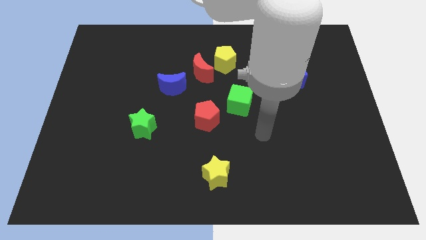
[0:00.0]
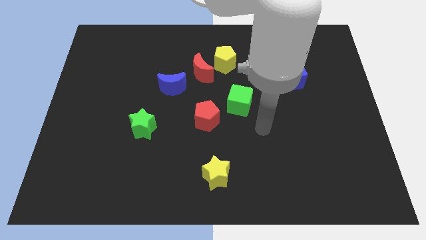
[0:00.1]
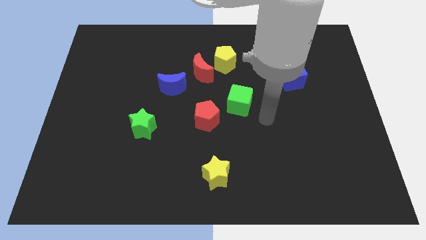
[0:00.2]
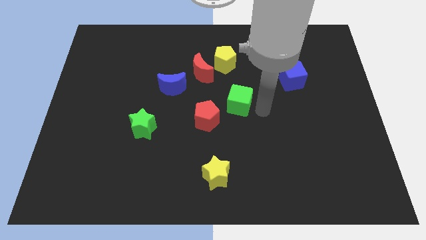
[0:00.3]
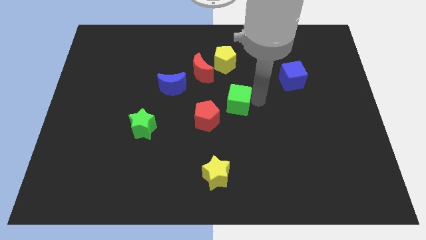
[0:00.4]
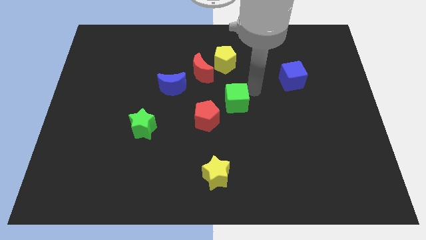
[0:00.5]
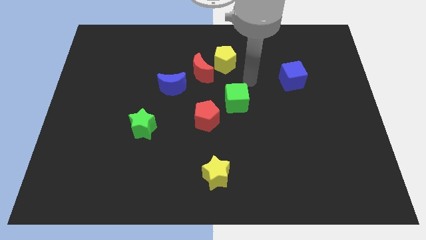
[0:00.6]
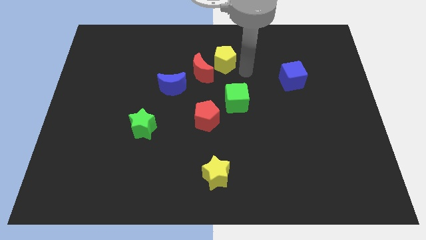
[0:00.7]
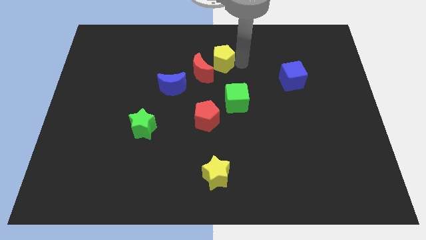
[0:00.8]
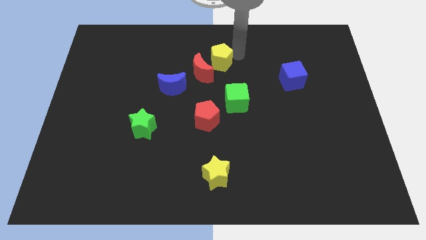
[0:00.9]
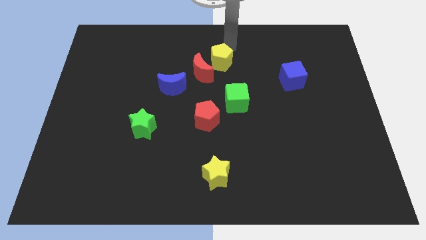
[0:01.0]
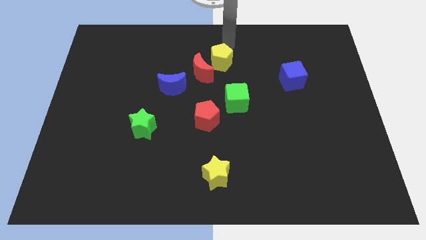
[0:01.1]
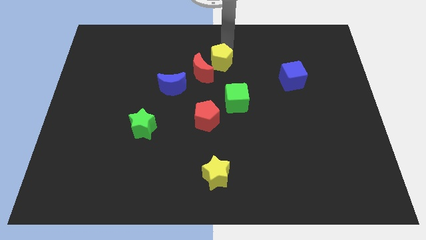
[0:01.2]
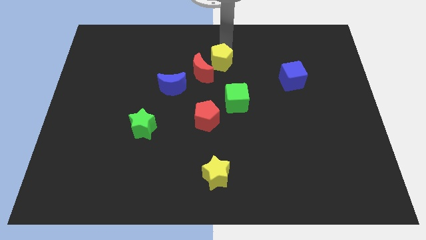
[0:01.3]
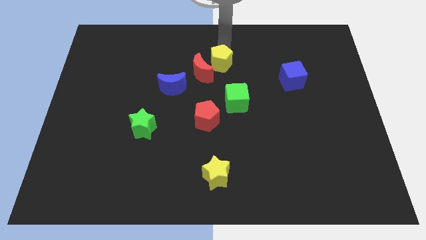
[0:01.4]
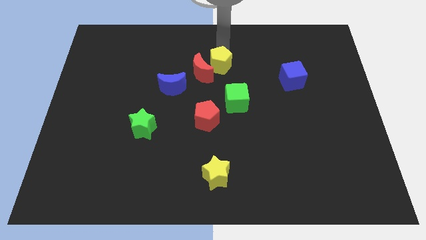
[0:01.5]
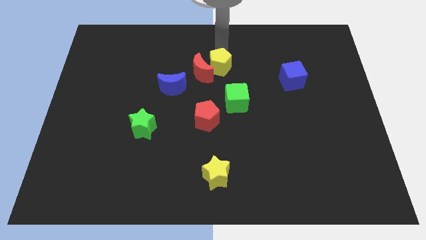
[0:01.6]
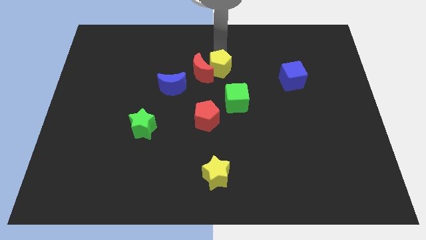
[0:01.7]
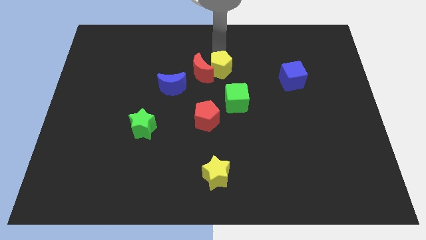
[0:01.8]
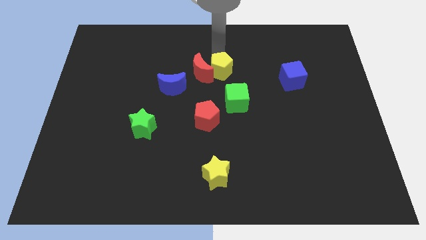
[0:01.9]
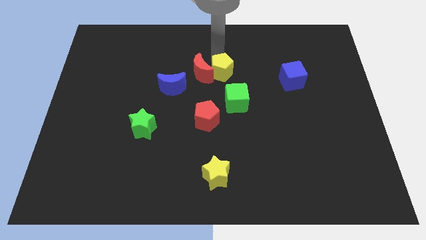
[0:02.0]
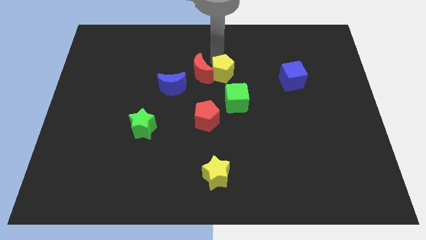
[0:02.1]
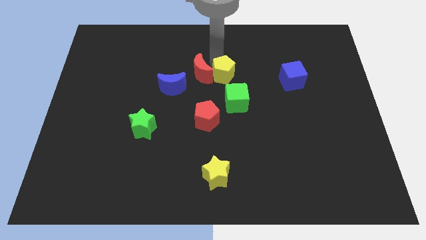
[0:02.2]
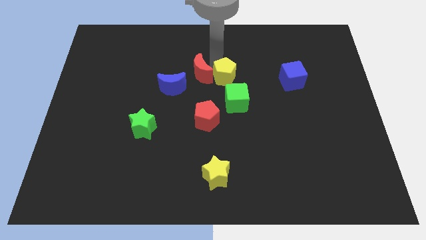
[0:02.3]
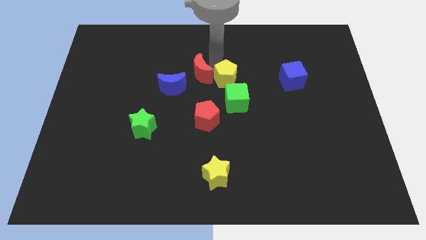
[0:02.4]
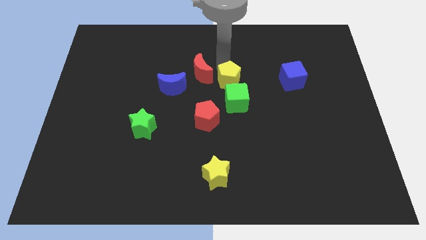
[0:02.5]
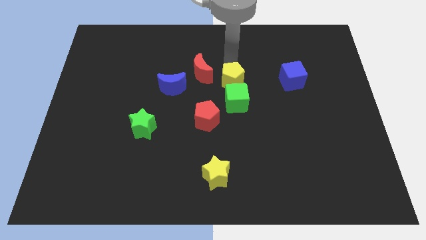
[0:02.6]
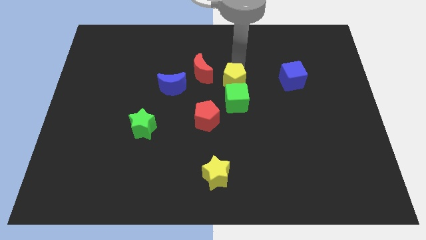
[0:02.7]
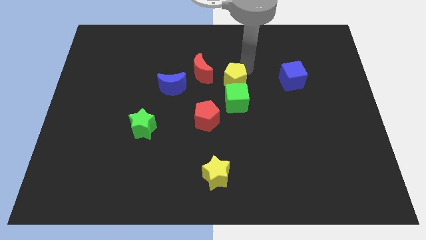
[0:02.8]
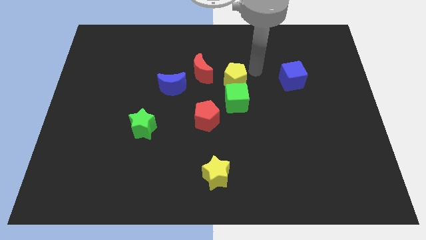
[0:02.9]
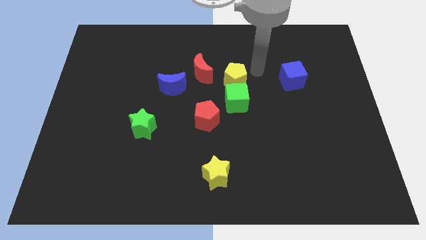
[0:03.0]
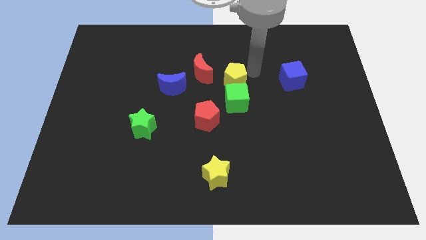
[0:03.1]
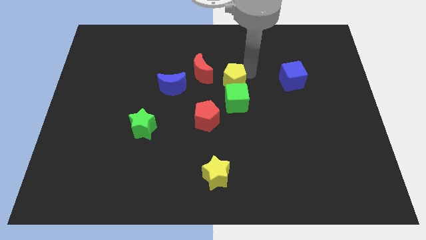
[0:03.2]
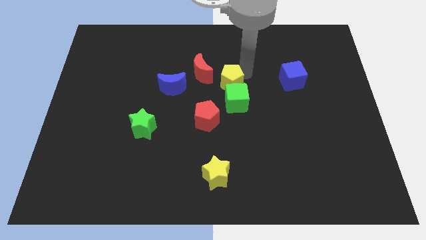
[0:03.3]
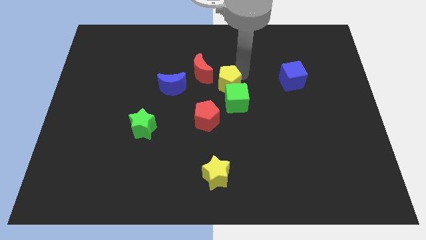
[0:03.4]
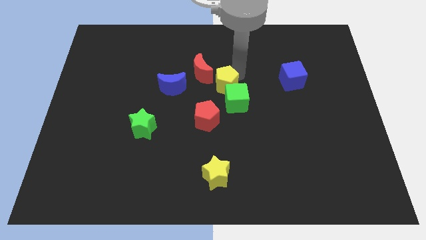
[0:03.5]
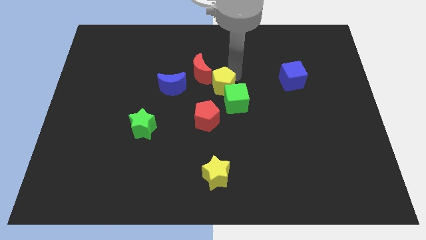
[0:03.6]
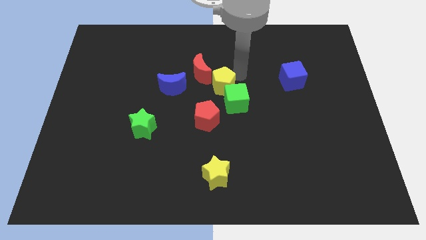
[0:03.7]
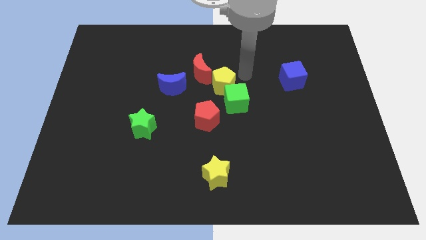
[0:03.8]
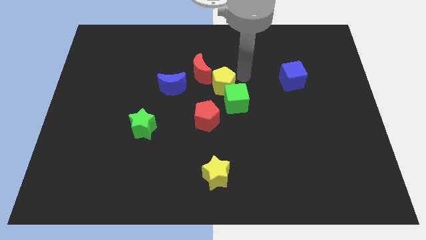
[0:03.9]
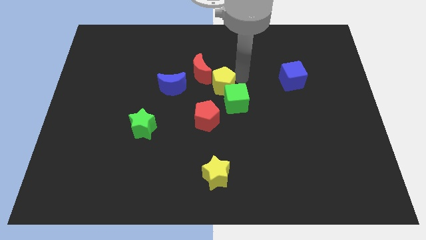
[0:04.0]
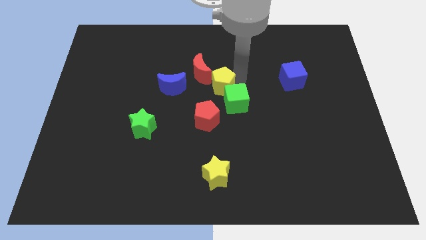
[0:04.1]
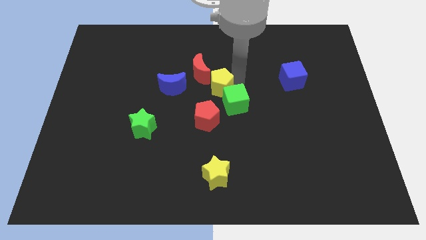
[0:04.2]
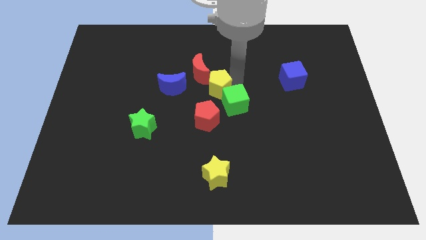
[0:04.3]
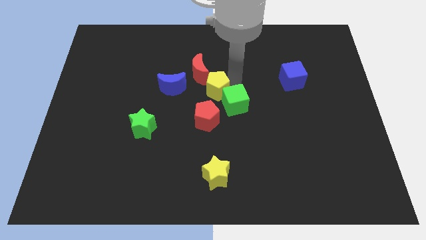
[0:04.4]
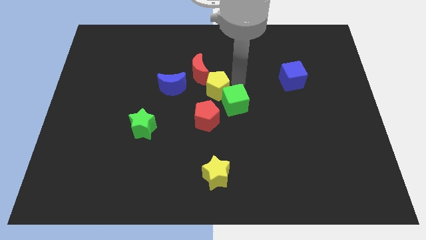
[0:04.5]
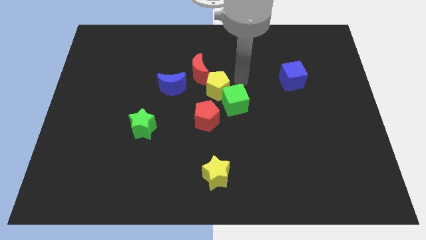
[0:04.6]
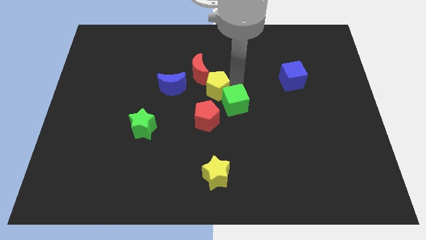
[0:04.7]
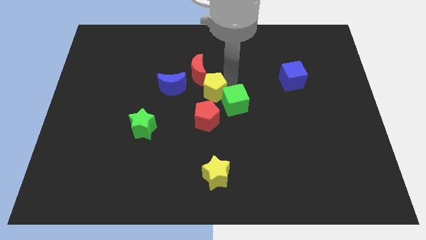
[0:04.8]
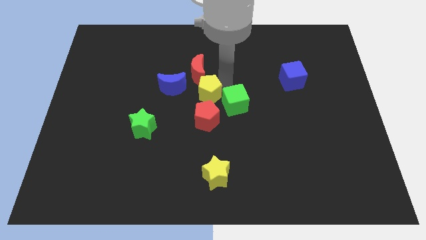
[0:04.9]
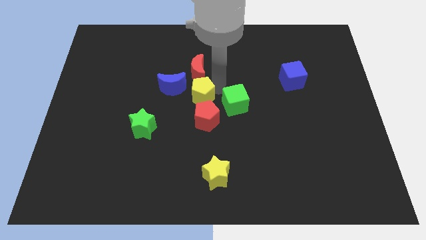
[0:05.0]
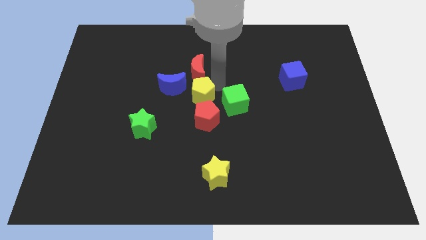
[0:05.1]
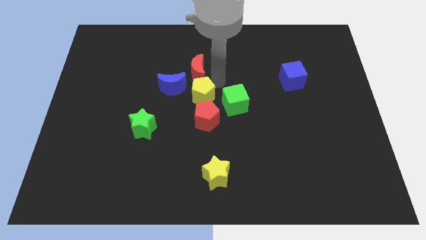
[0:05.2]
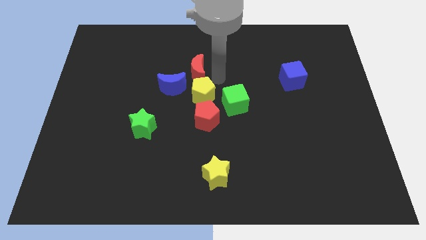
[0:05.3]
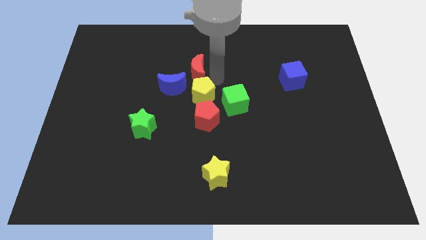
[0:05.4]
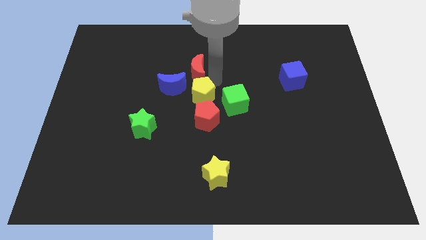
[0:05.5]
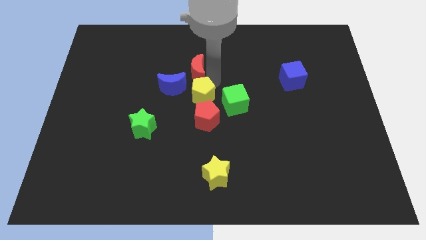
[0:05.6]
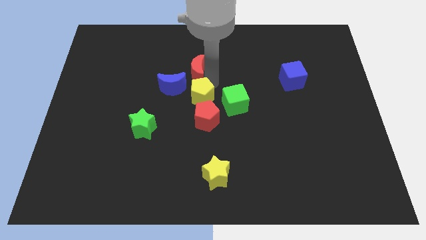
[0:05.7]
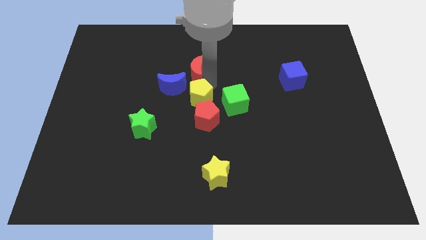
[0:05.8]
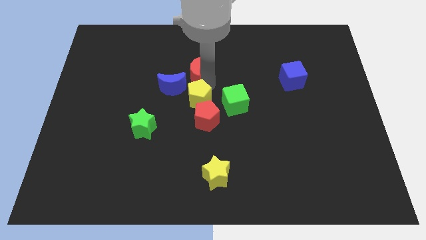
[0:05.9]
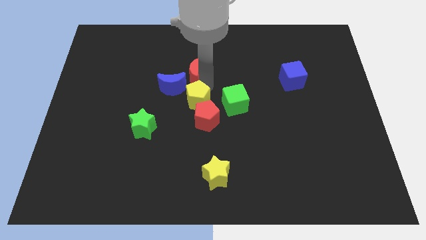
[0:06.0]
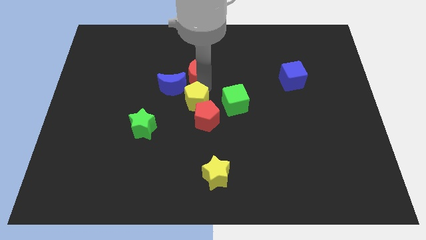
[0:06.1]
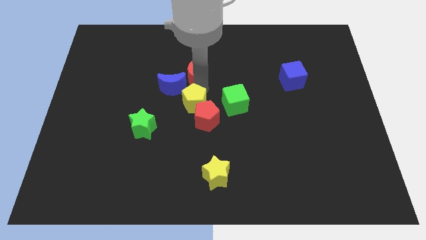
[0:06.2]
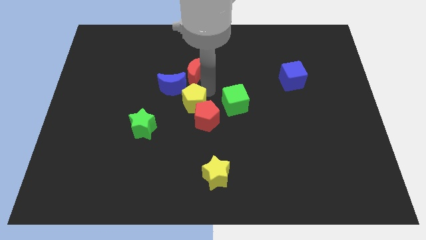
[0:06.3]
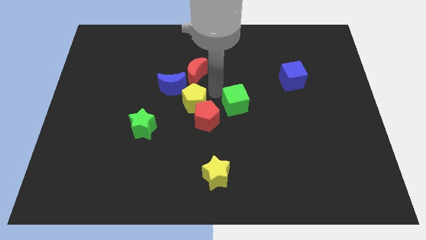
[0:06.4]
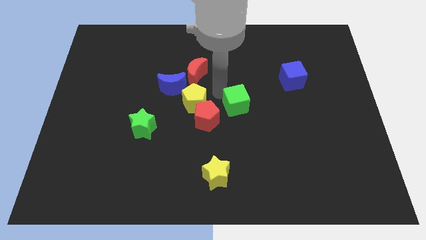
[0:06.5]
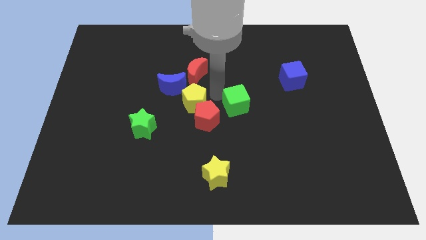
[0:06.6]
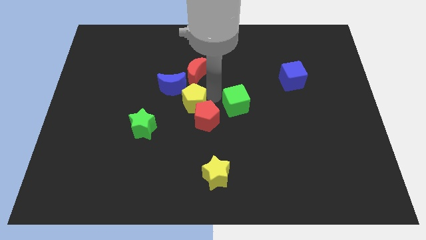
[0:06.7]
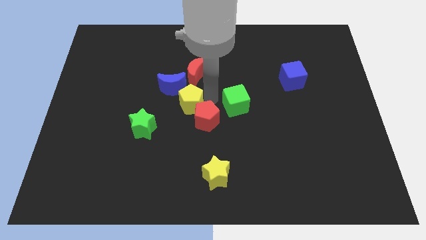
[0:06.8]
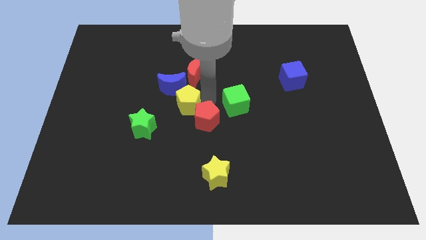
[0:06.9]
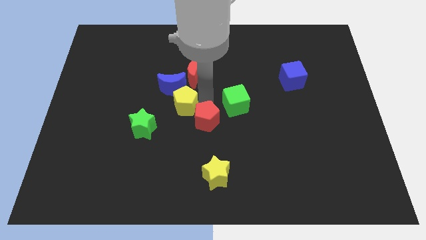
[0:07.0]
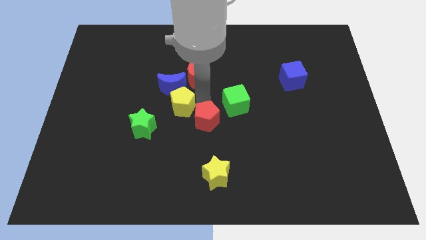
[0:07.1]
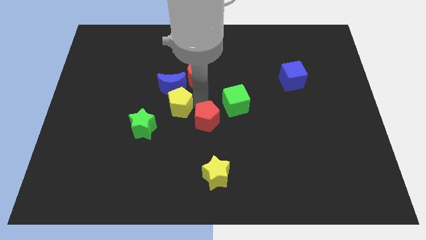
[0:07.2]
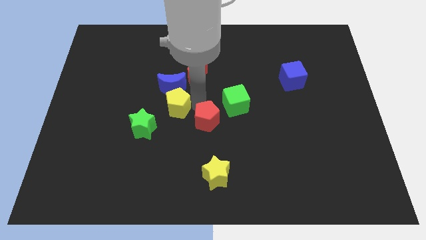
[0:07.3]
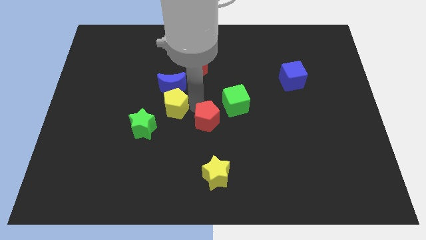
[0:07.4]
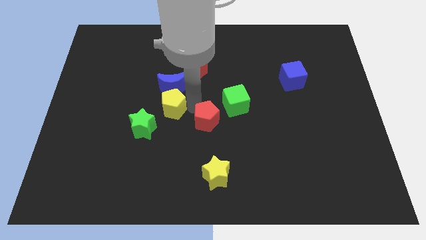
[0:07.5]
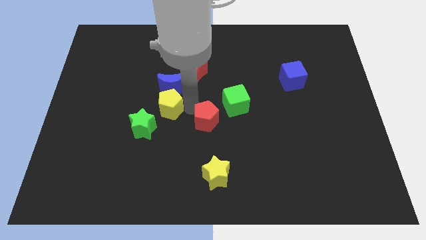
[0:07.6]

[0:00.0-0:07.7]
move the yellow pentagon down and to the left diagonally

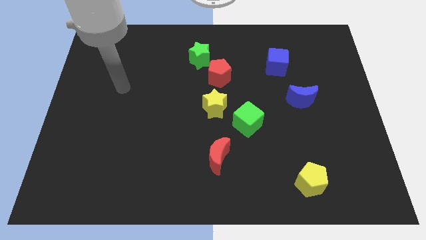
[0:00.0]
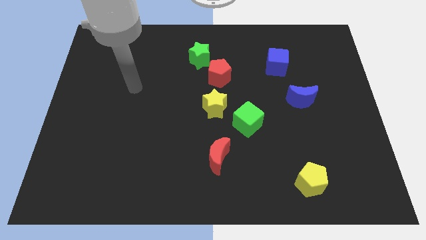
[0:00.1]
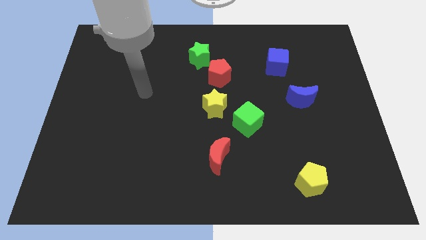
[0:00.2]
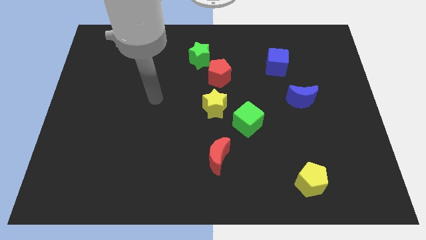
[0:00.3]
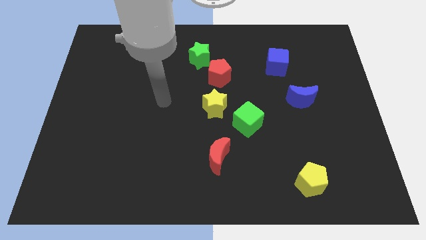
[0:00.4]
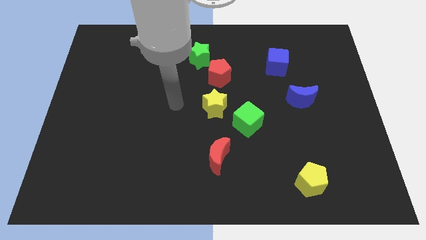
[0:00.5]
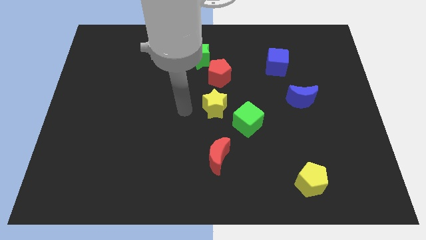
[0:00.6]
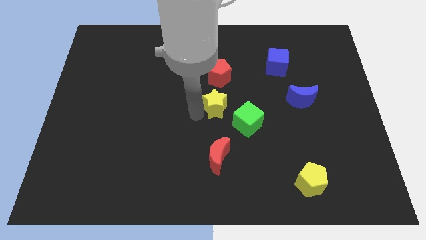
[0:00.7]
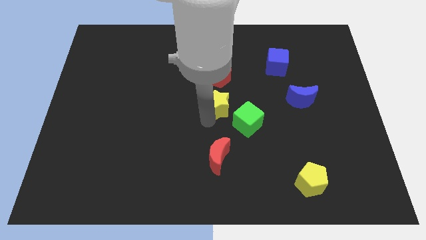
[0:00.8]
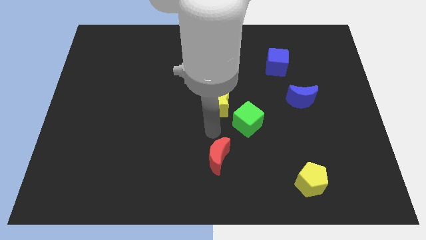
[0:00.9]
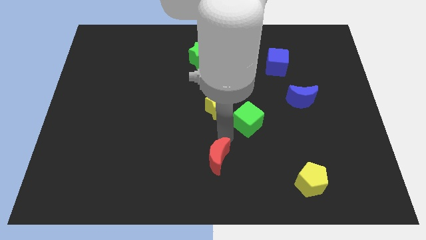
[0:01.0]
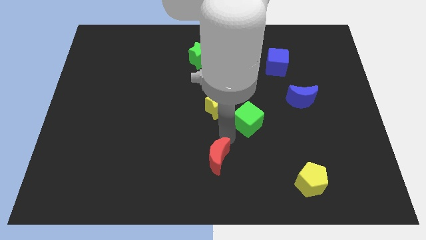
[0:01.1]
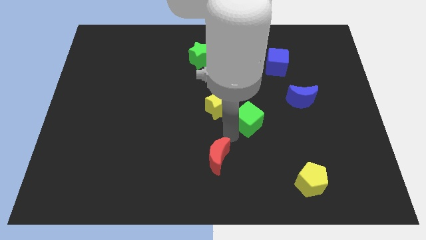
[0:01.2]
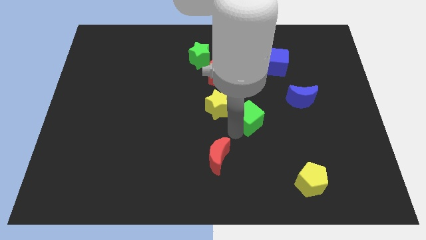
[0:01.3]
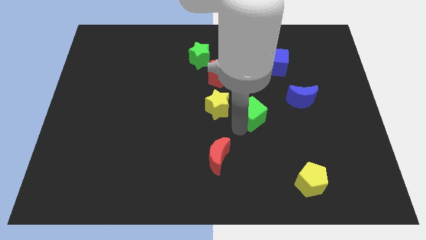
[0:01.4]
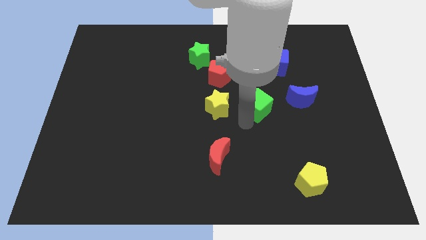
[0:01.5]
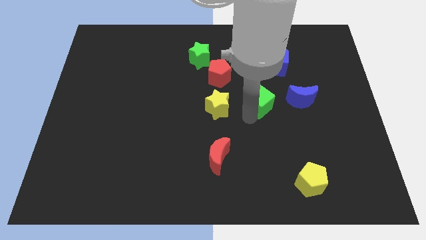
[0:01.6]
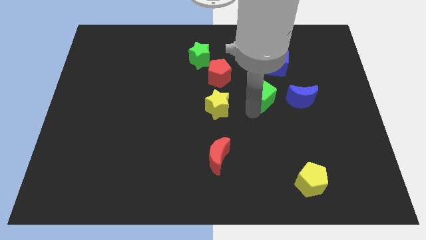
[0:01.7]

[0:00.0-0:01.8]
slightly move the green cube diagonally upwards and right
